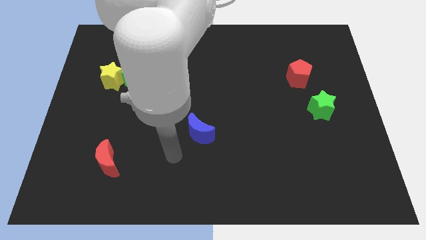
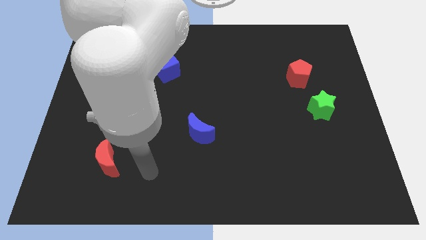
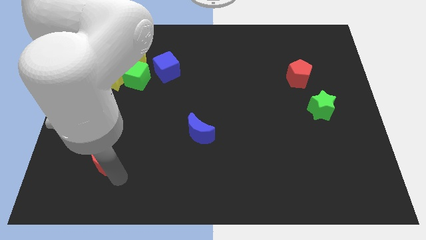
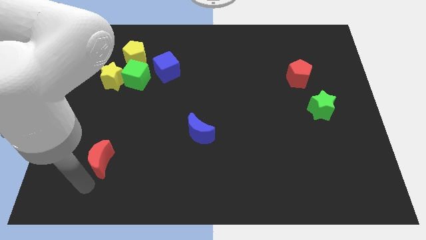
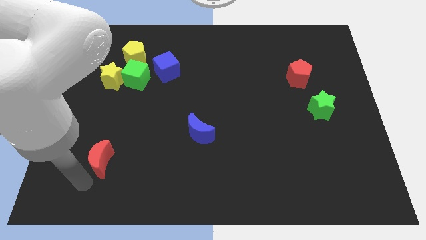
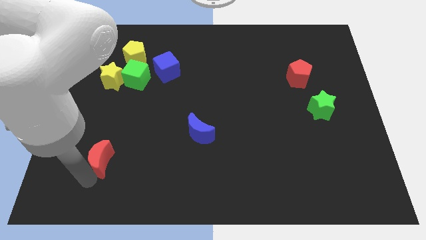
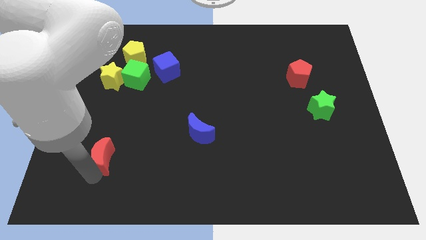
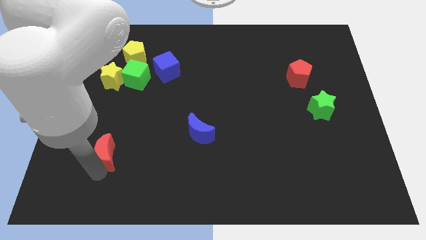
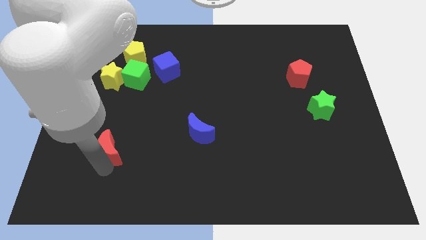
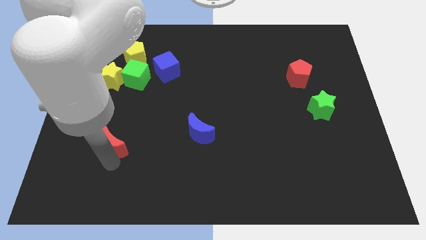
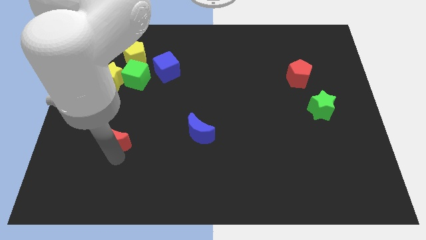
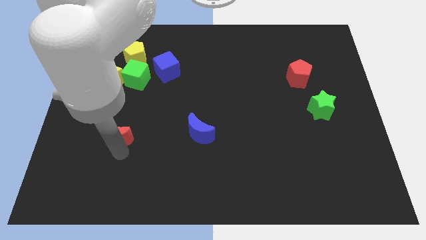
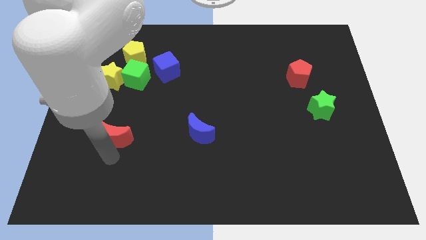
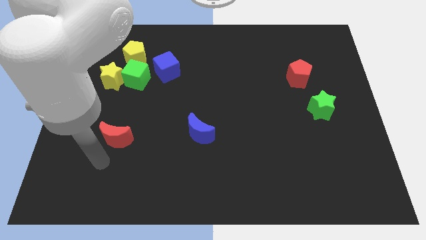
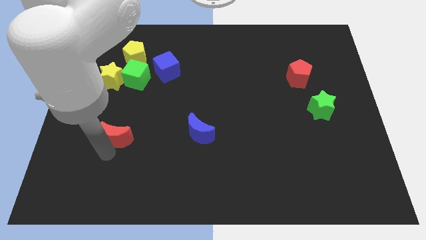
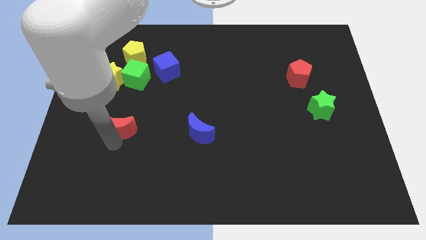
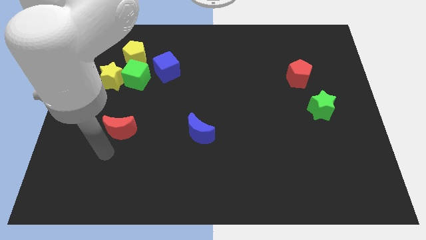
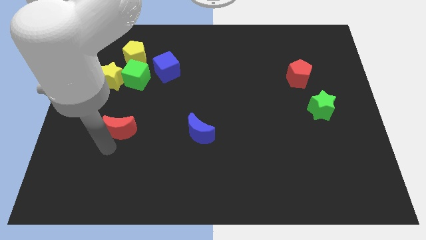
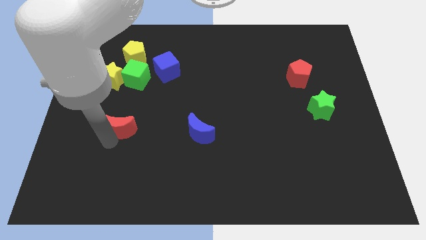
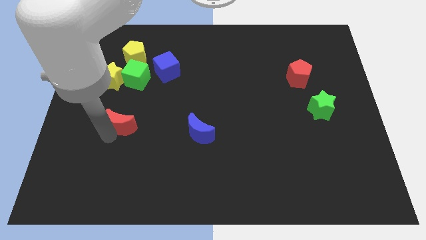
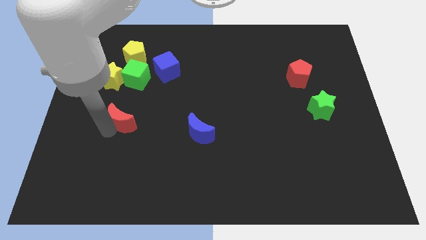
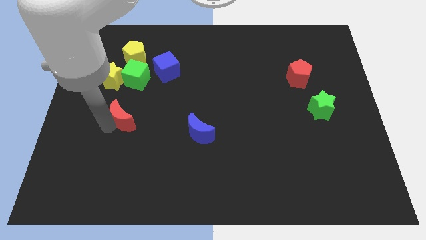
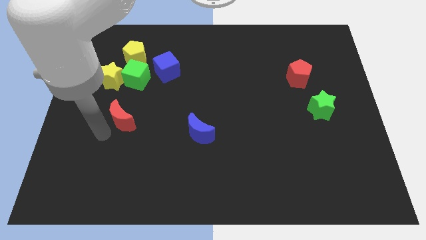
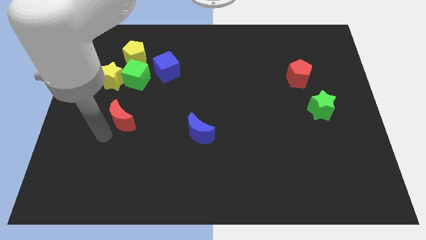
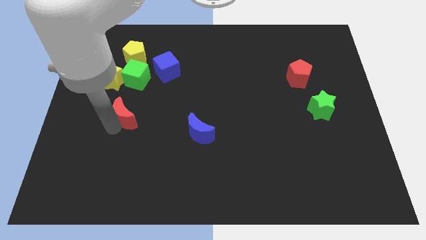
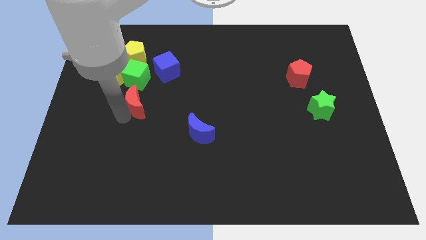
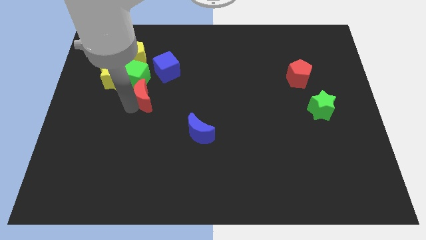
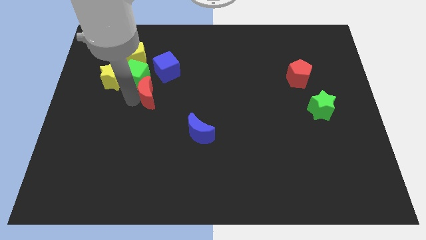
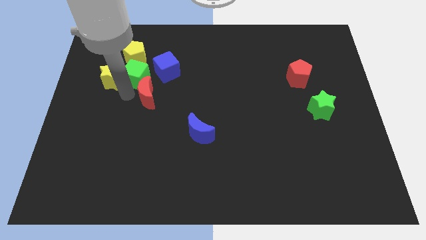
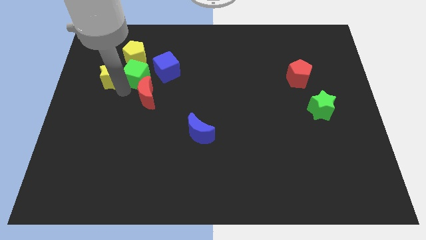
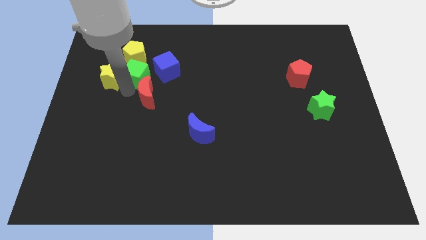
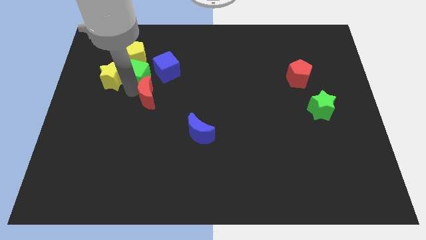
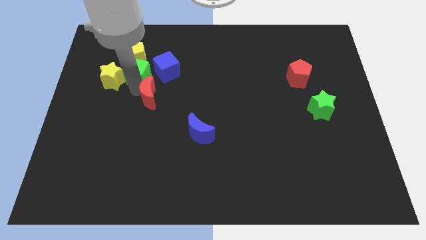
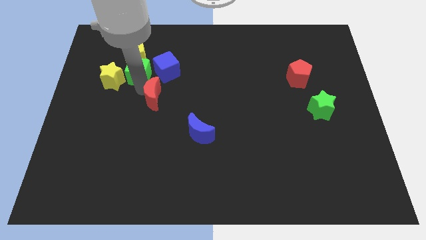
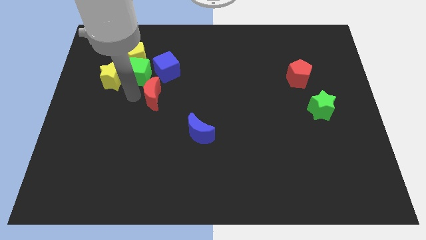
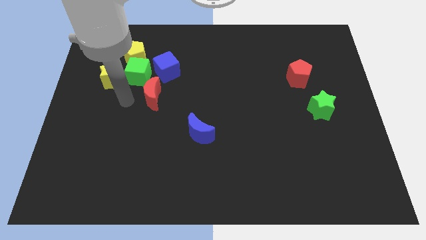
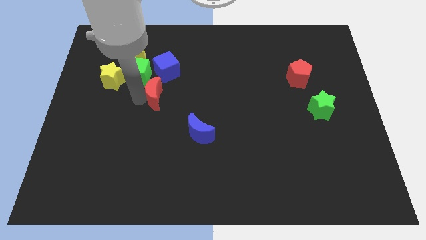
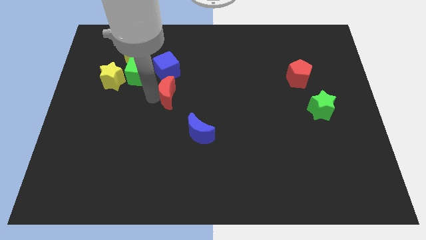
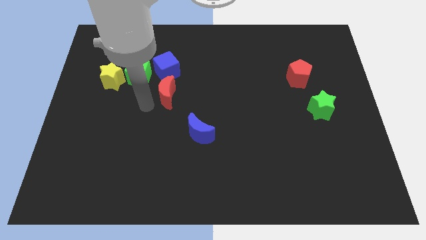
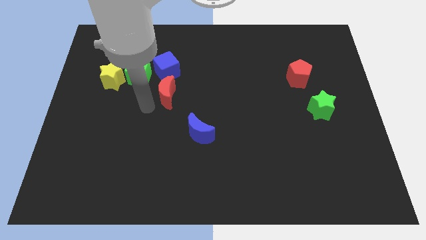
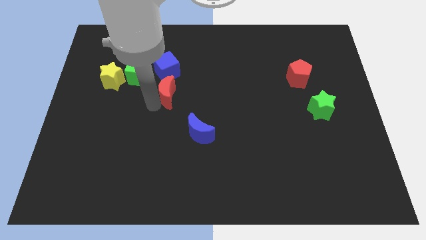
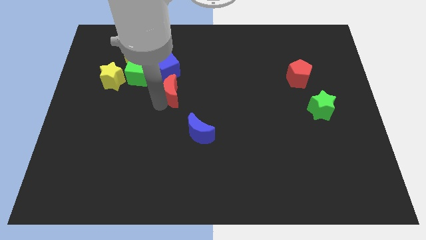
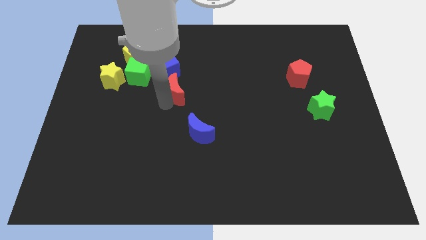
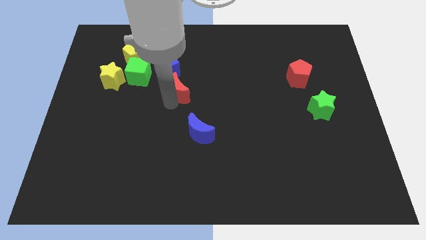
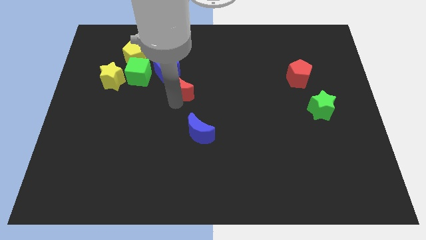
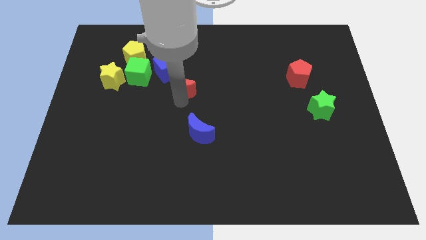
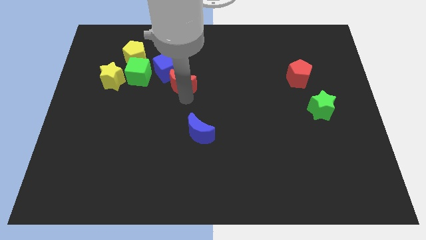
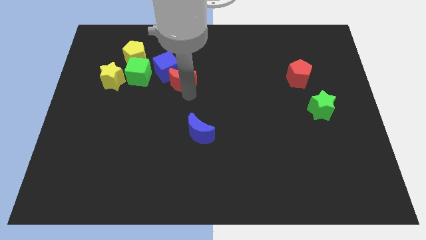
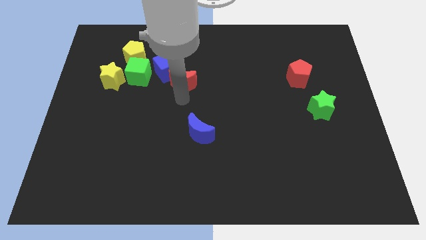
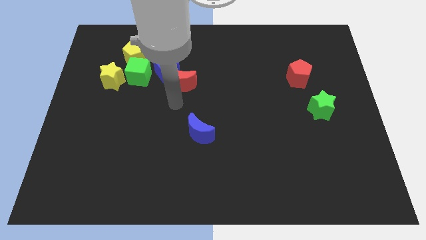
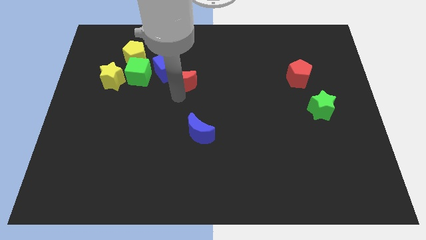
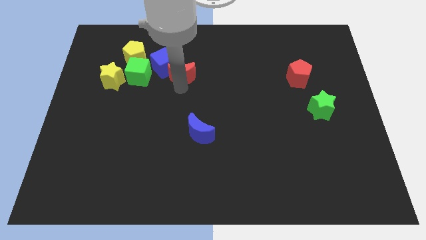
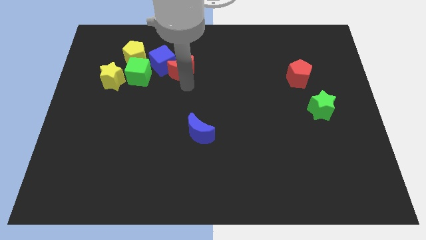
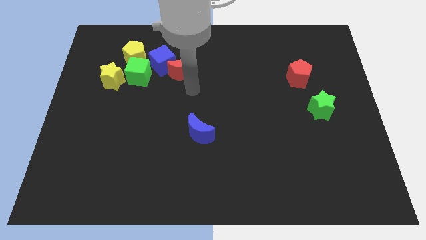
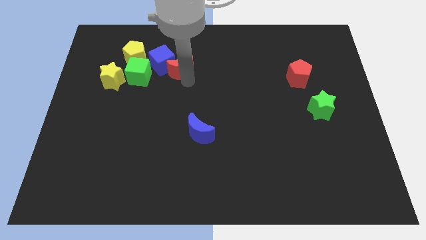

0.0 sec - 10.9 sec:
slide the red moon to the right of the yellow pentagon

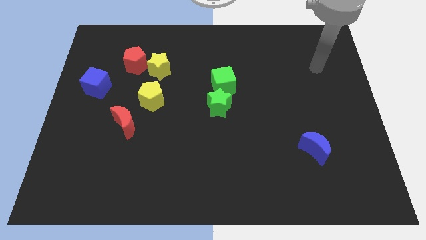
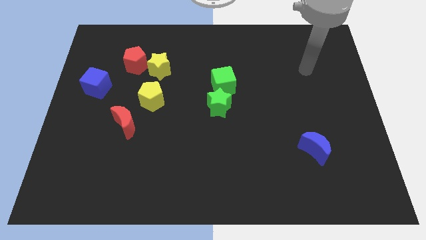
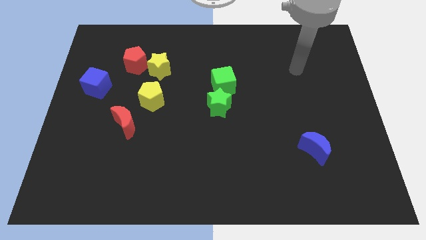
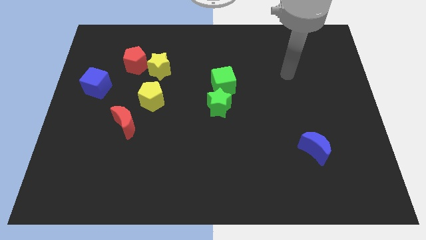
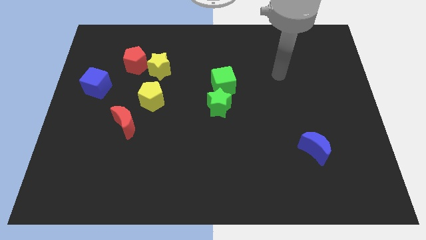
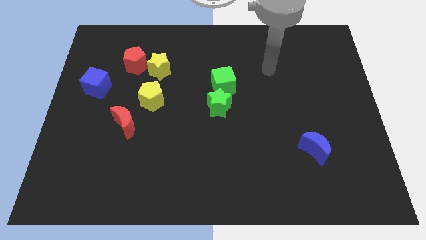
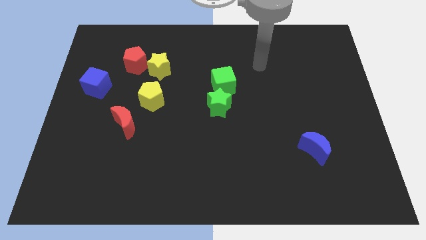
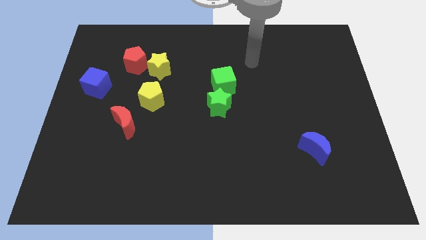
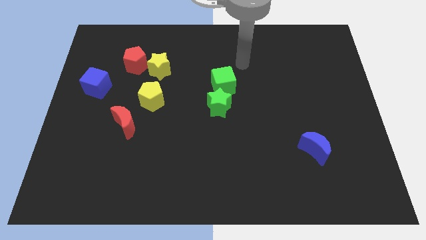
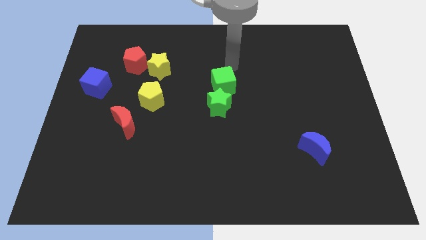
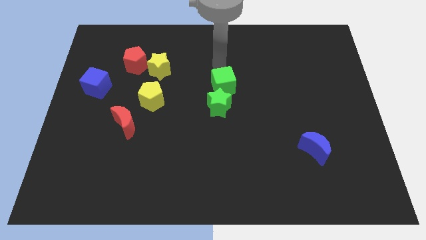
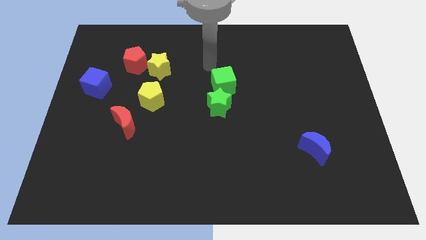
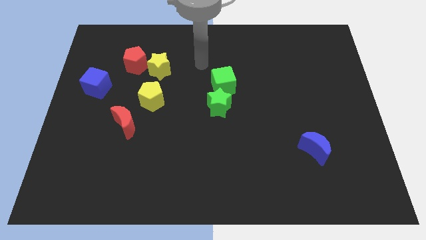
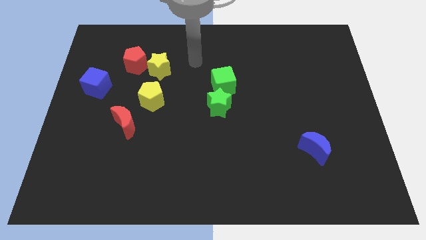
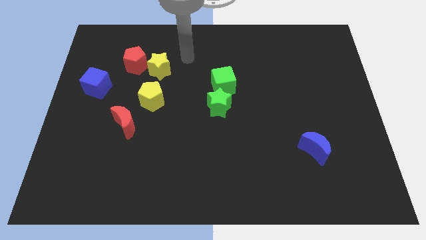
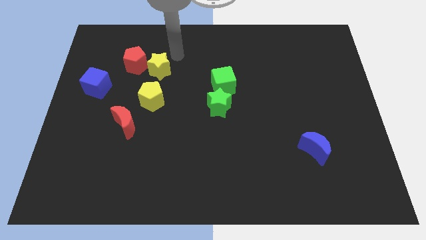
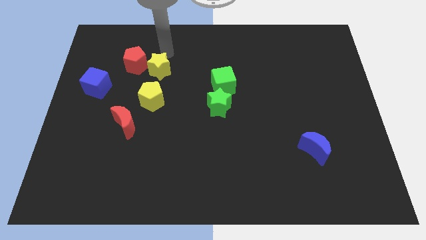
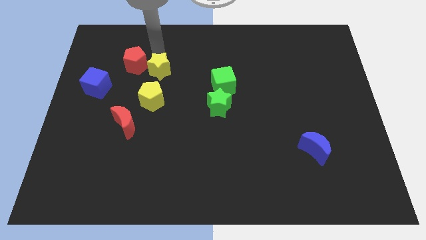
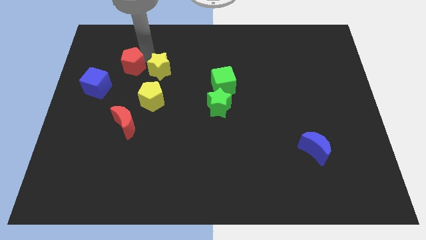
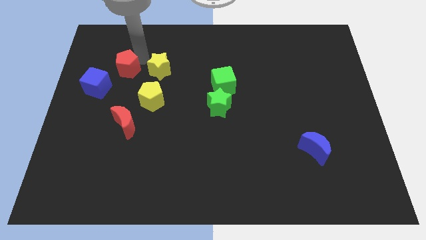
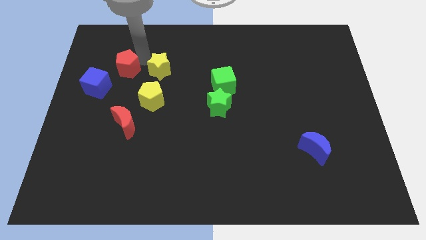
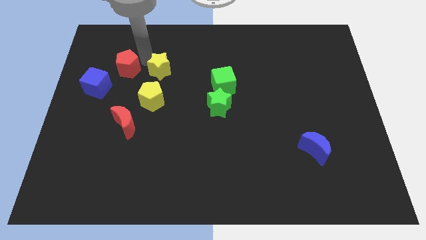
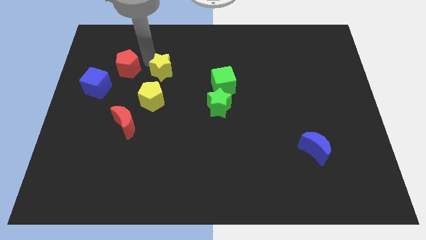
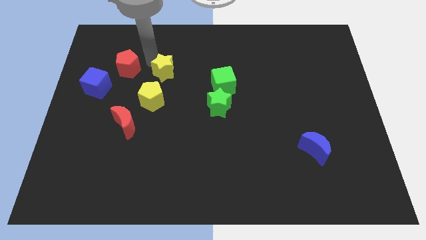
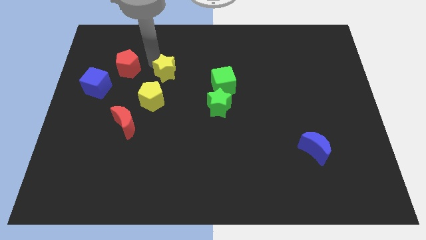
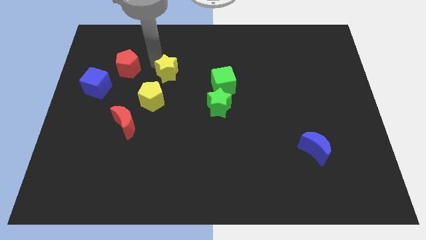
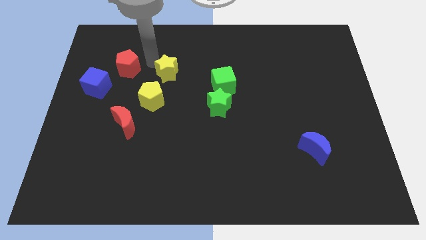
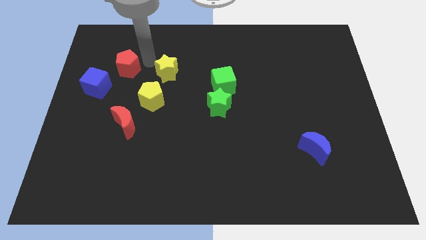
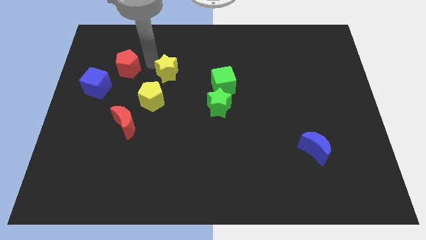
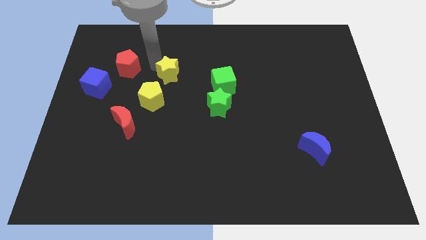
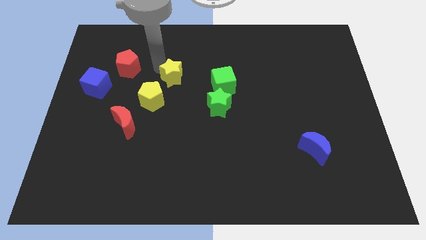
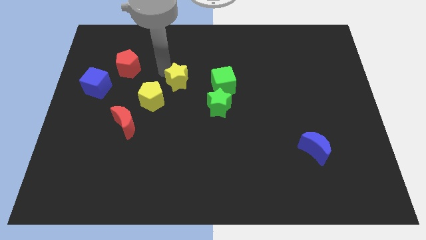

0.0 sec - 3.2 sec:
slide the yellow star to the top left side of the green star
